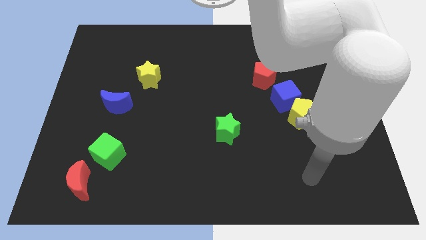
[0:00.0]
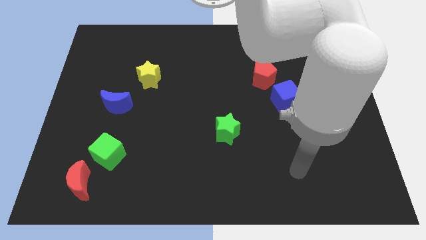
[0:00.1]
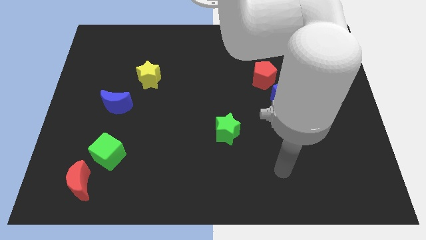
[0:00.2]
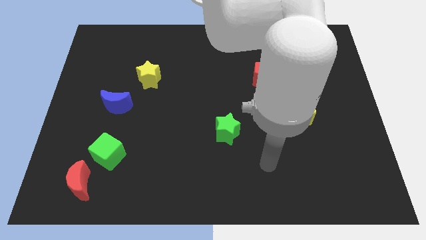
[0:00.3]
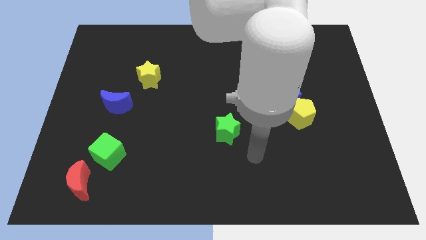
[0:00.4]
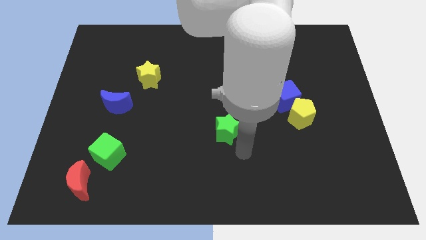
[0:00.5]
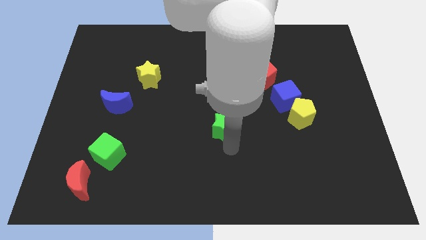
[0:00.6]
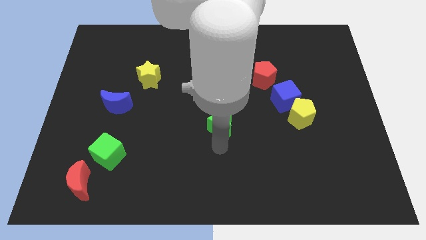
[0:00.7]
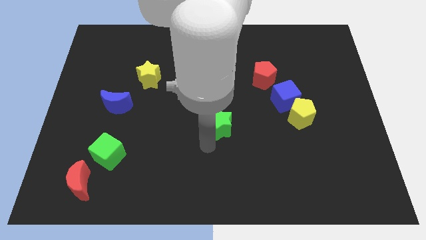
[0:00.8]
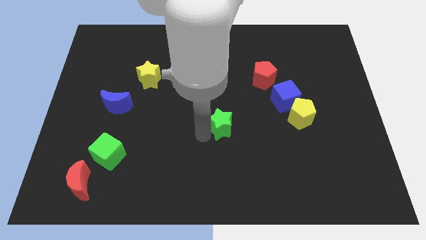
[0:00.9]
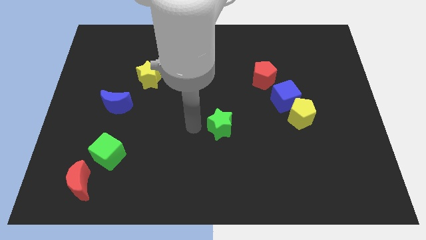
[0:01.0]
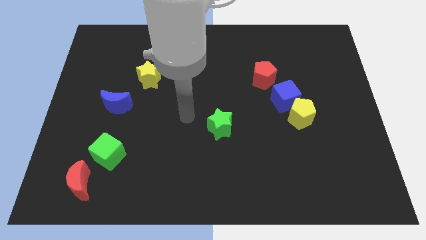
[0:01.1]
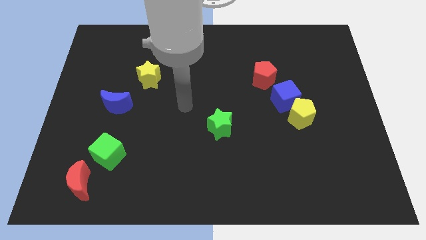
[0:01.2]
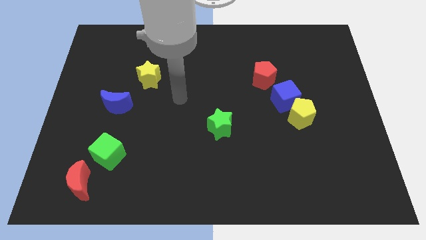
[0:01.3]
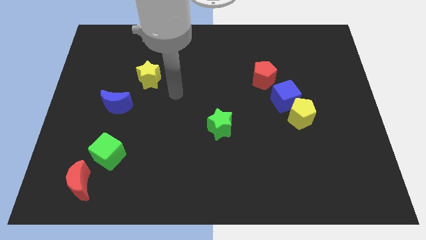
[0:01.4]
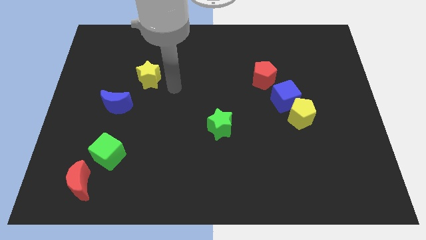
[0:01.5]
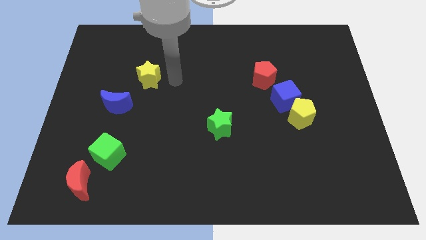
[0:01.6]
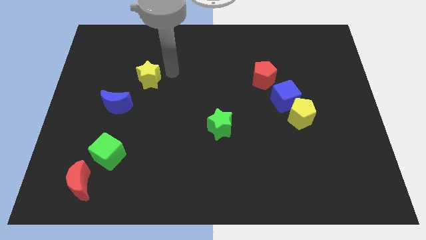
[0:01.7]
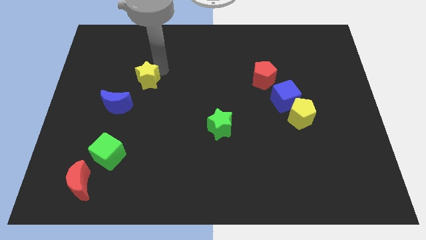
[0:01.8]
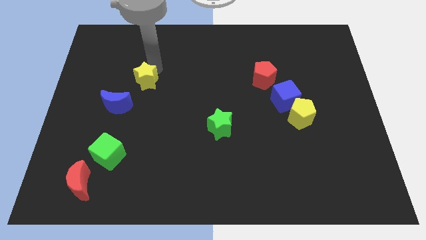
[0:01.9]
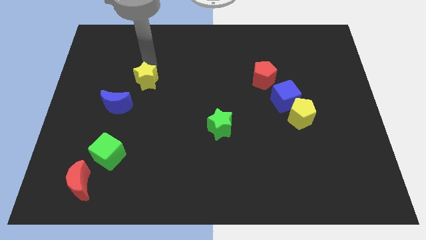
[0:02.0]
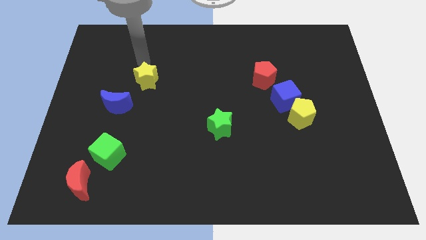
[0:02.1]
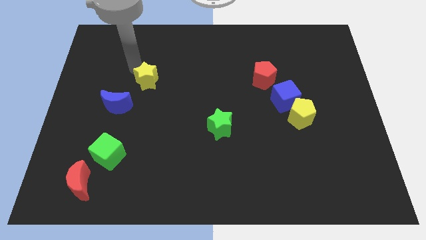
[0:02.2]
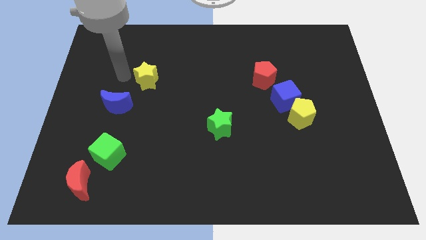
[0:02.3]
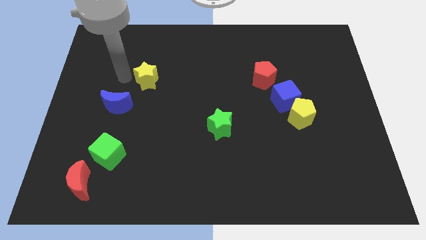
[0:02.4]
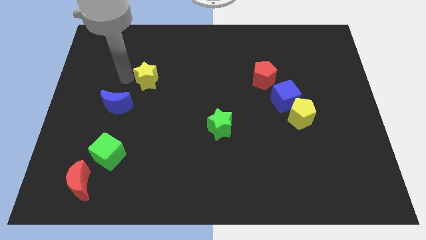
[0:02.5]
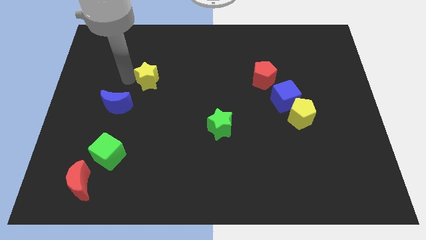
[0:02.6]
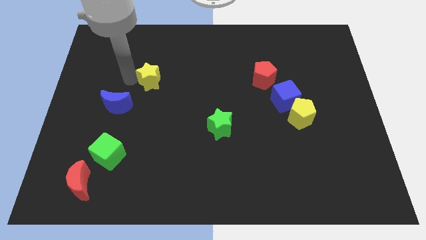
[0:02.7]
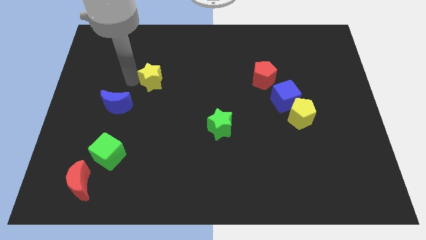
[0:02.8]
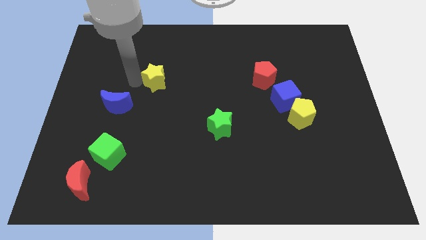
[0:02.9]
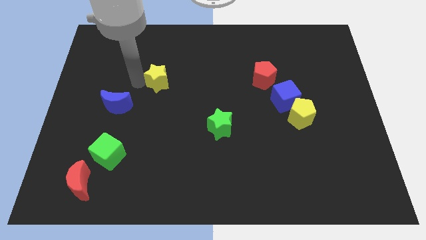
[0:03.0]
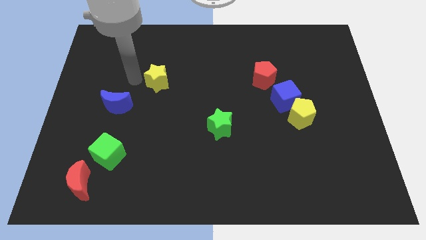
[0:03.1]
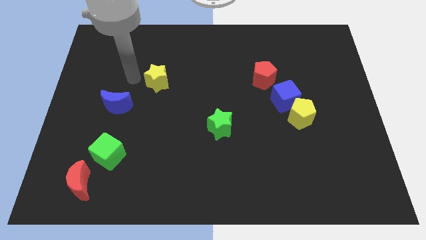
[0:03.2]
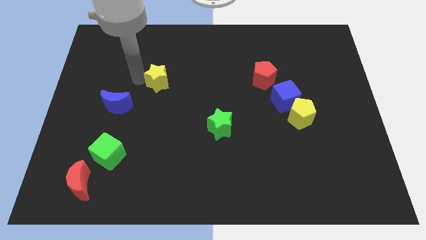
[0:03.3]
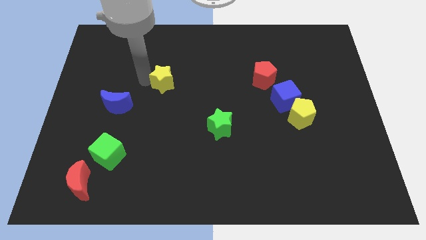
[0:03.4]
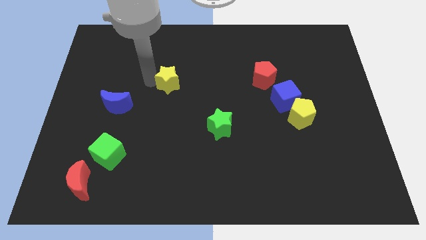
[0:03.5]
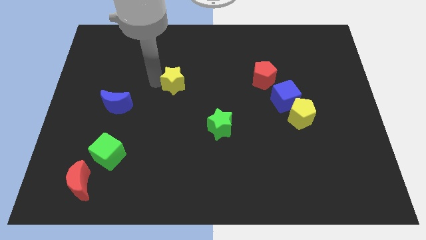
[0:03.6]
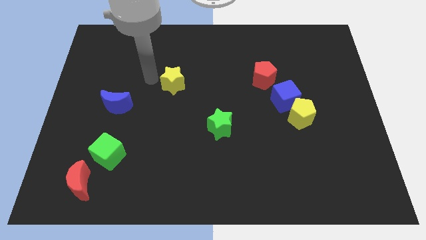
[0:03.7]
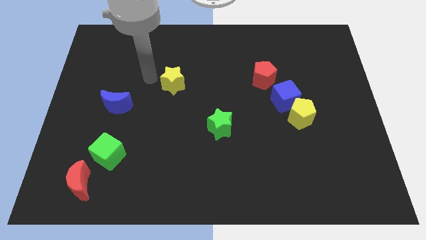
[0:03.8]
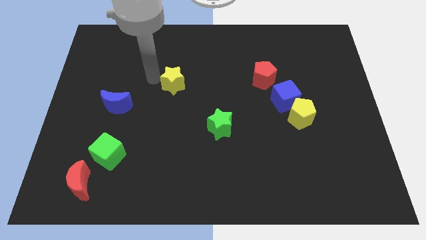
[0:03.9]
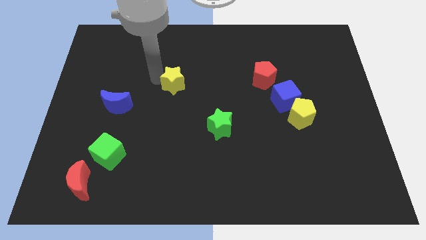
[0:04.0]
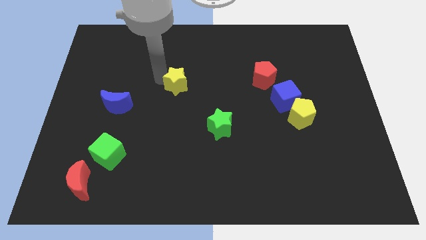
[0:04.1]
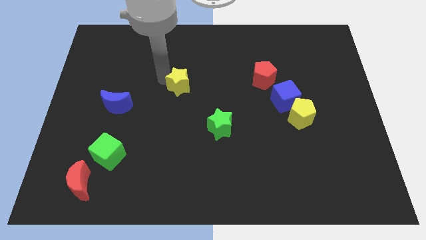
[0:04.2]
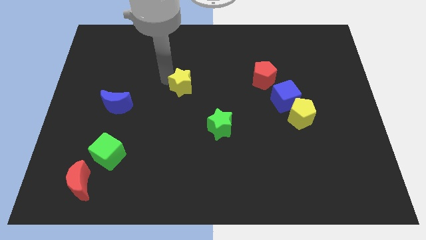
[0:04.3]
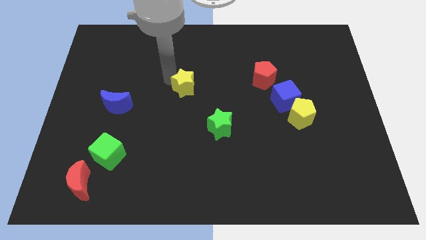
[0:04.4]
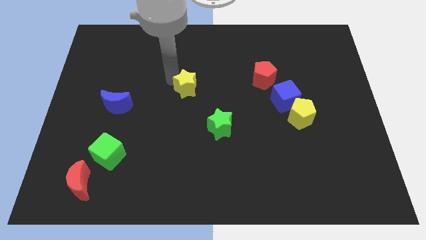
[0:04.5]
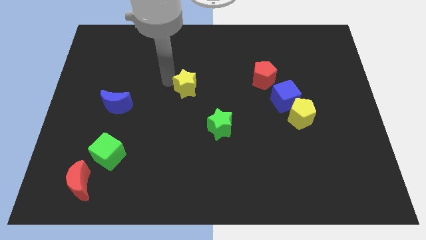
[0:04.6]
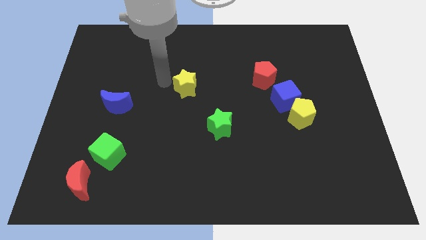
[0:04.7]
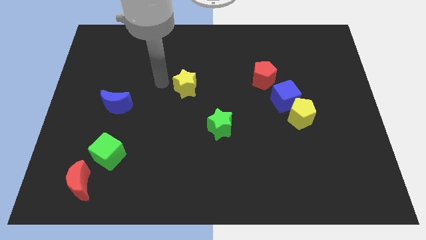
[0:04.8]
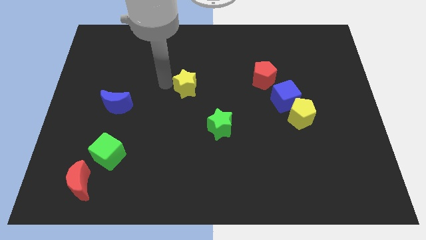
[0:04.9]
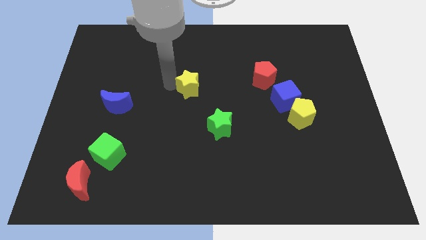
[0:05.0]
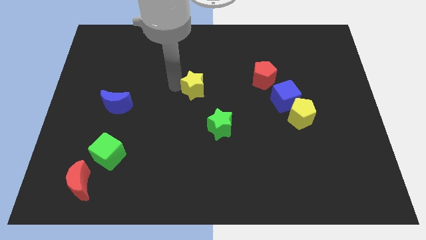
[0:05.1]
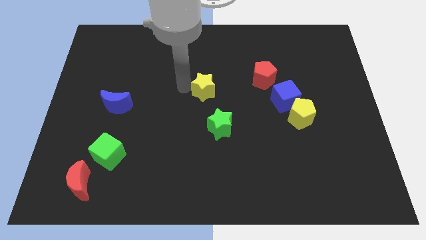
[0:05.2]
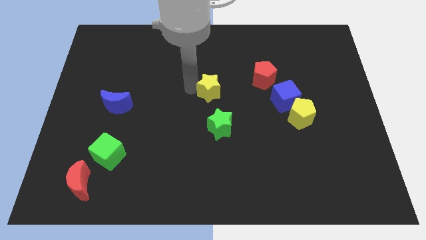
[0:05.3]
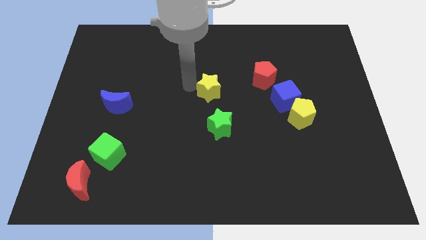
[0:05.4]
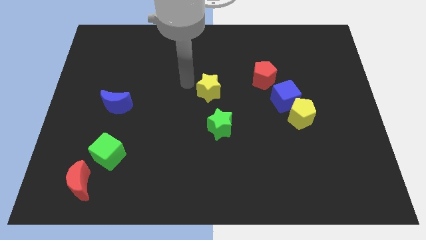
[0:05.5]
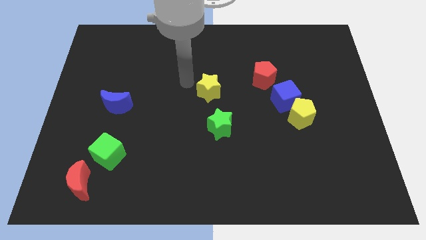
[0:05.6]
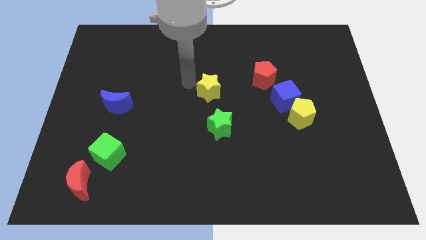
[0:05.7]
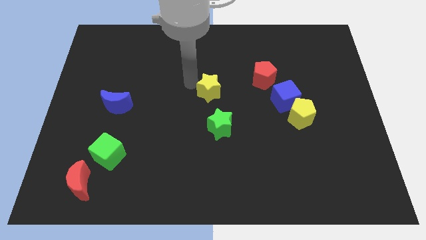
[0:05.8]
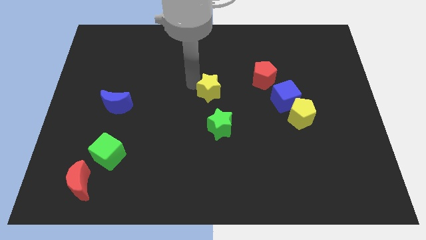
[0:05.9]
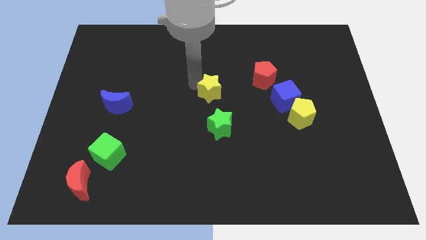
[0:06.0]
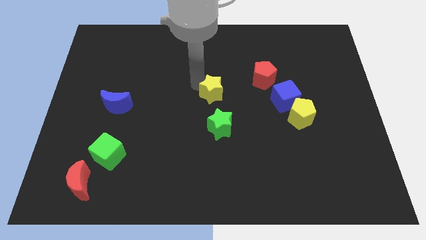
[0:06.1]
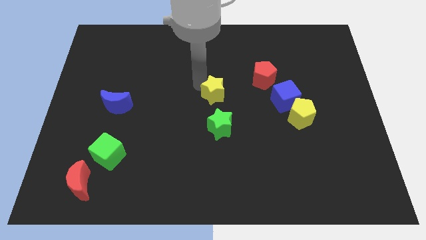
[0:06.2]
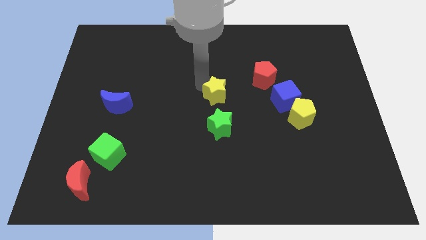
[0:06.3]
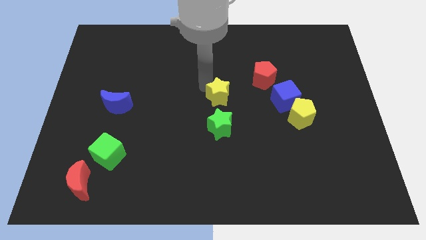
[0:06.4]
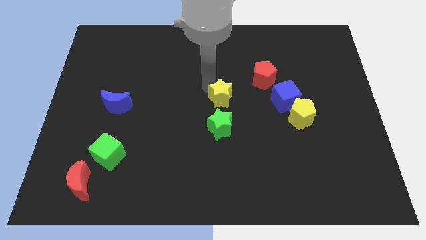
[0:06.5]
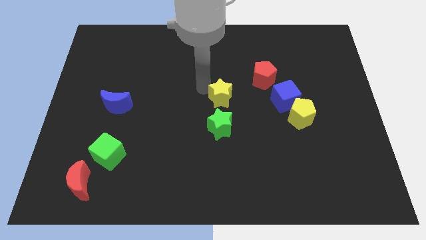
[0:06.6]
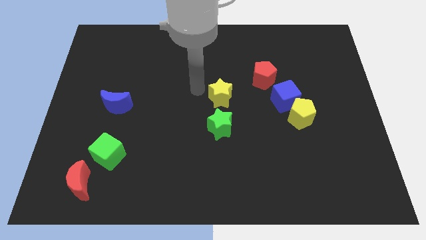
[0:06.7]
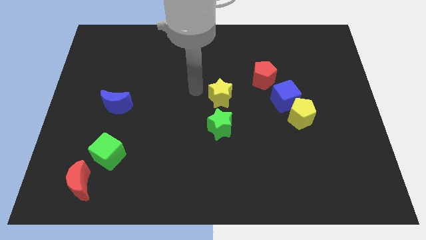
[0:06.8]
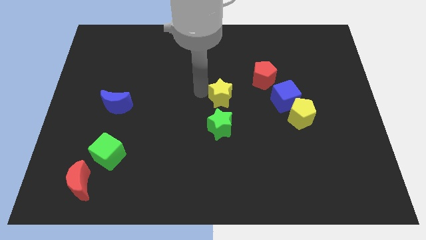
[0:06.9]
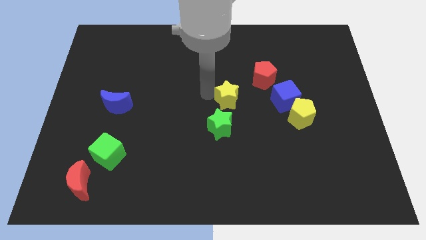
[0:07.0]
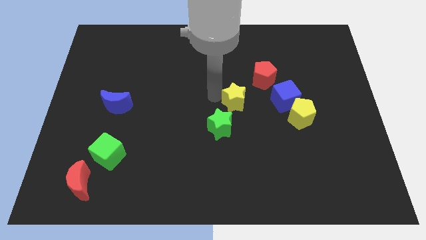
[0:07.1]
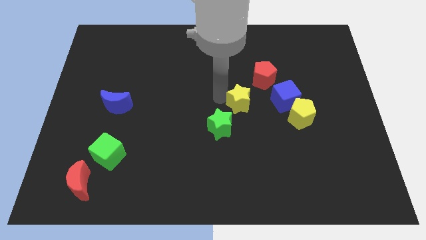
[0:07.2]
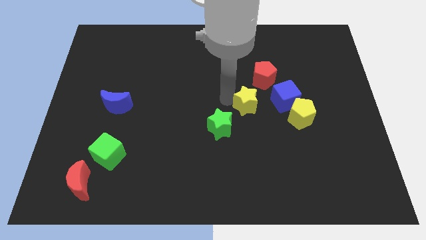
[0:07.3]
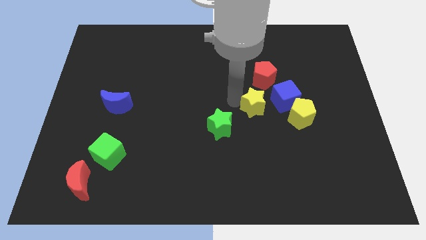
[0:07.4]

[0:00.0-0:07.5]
move the yellow star to the bottom left side of the blue cube
